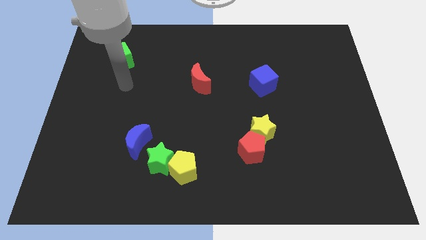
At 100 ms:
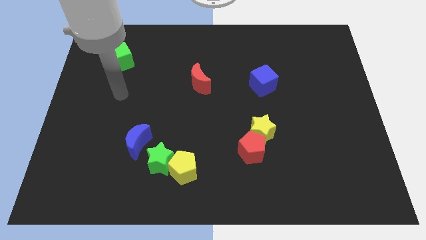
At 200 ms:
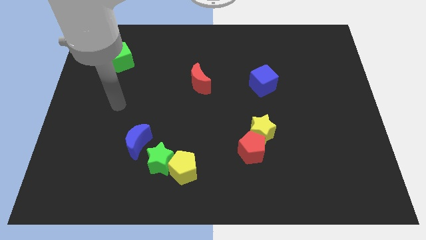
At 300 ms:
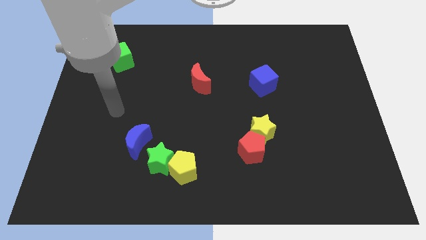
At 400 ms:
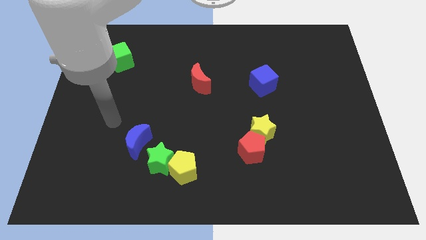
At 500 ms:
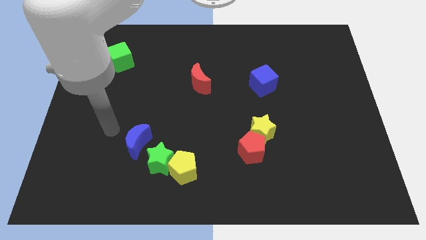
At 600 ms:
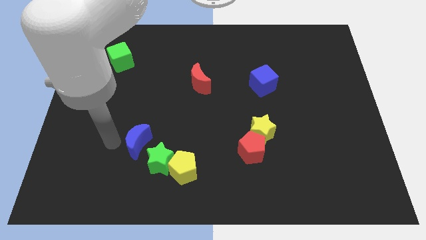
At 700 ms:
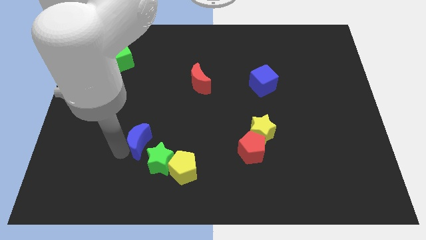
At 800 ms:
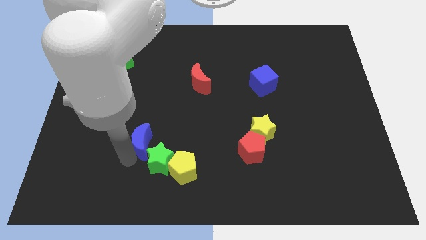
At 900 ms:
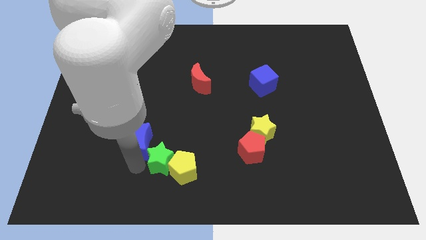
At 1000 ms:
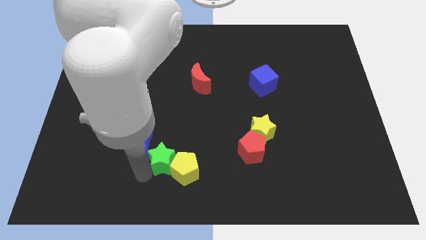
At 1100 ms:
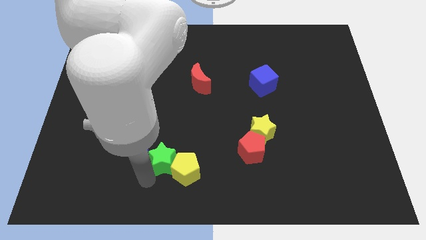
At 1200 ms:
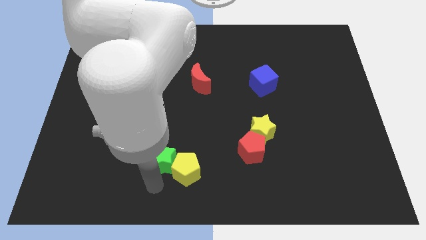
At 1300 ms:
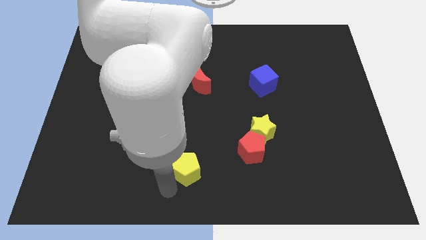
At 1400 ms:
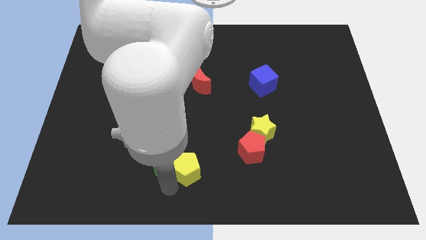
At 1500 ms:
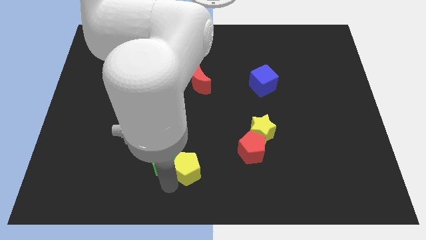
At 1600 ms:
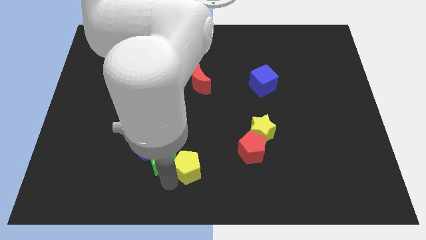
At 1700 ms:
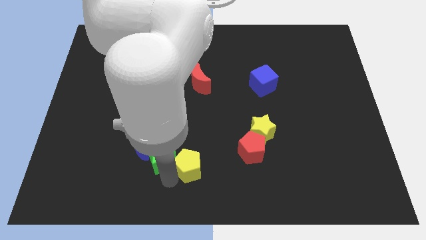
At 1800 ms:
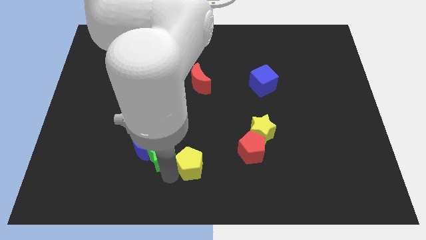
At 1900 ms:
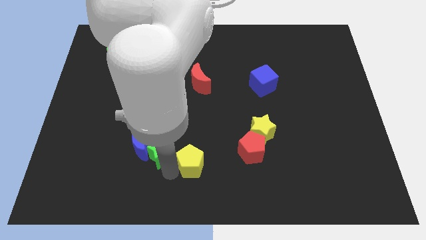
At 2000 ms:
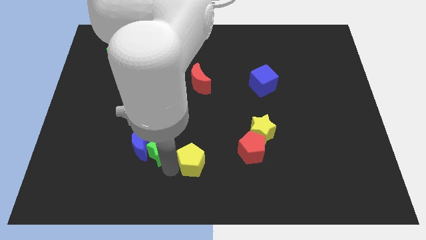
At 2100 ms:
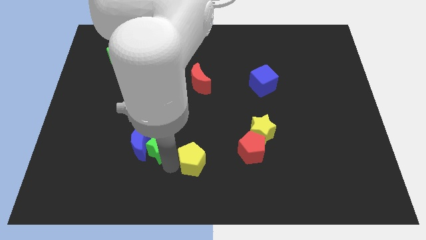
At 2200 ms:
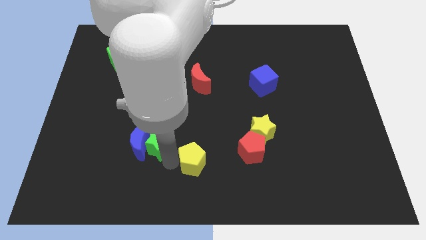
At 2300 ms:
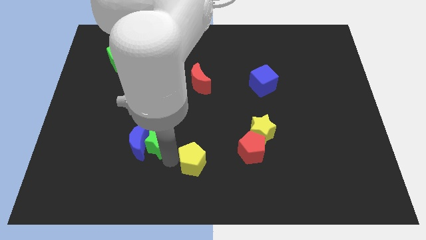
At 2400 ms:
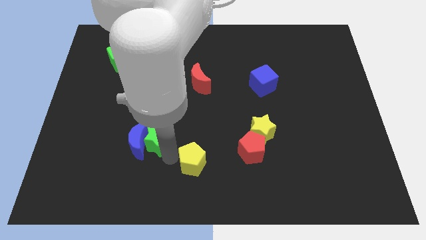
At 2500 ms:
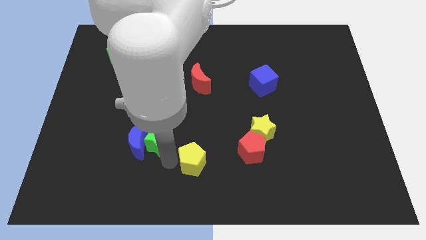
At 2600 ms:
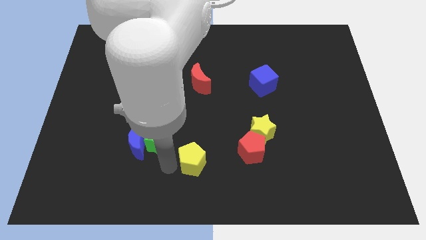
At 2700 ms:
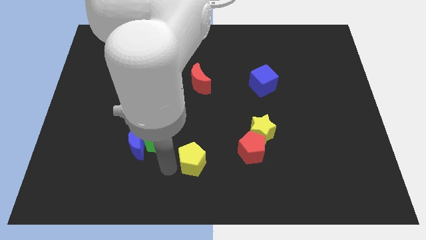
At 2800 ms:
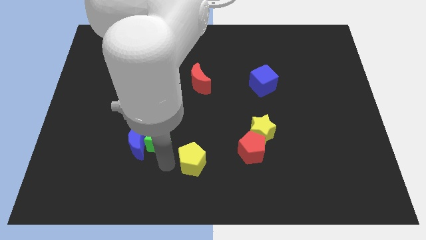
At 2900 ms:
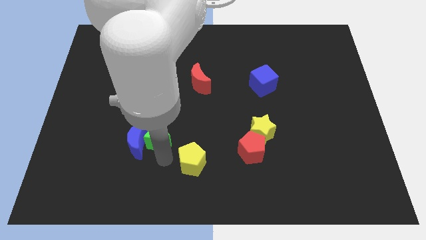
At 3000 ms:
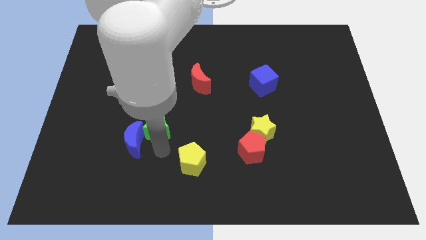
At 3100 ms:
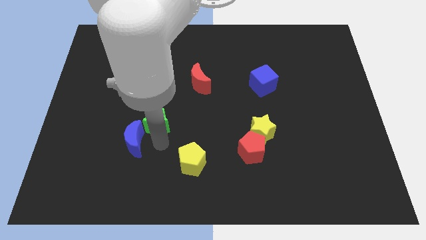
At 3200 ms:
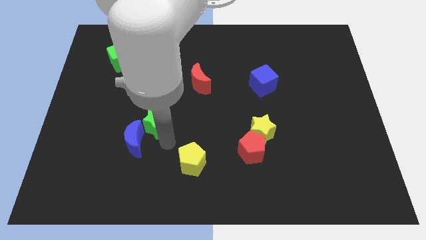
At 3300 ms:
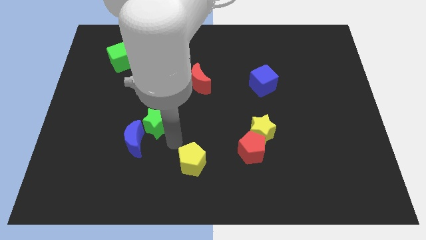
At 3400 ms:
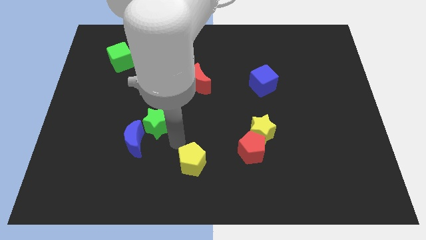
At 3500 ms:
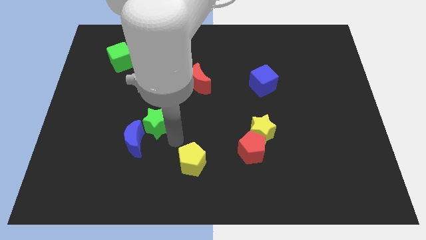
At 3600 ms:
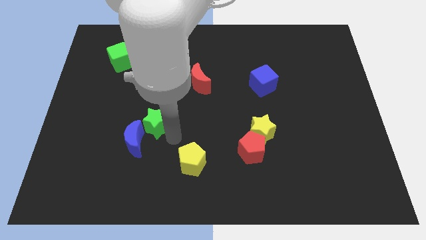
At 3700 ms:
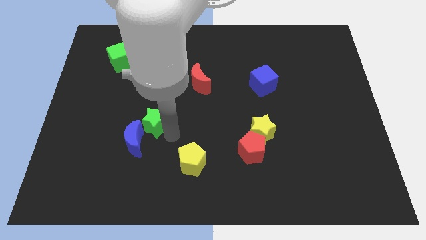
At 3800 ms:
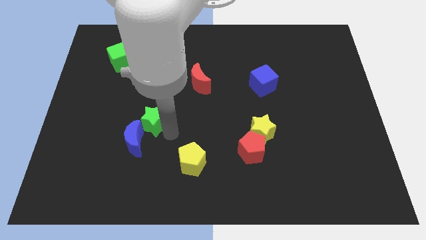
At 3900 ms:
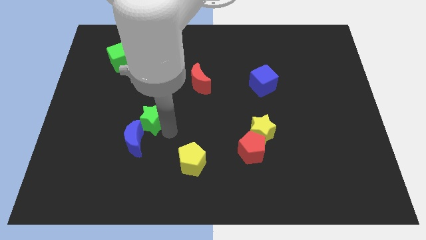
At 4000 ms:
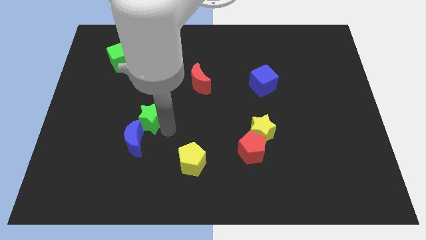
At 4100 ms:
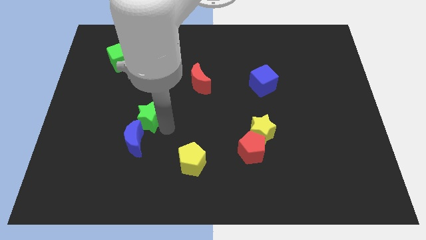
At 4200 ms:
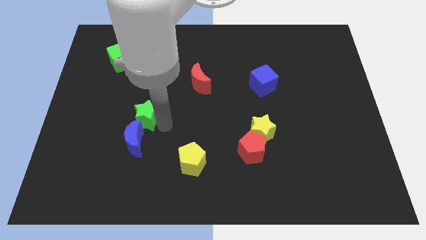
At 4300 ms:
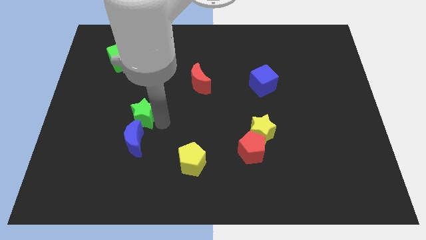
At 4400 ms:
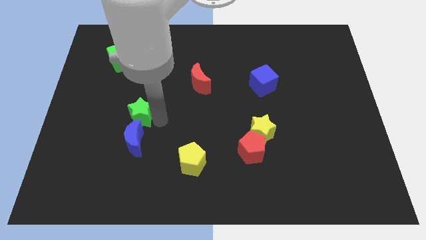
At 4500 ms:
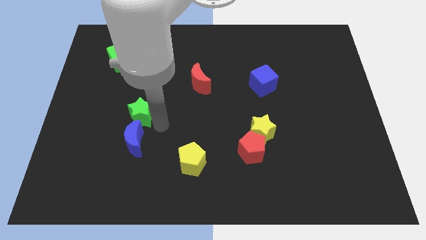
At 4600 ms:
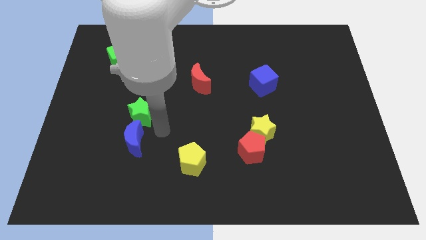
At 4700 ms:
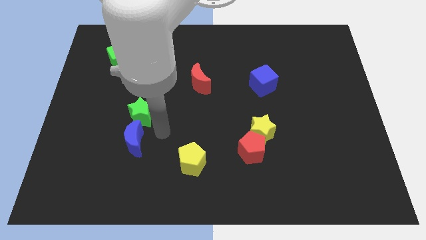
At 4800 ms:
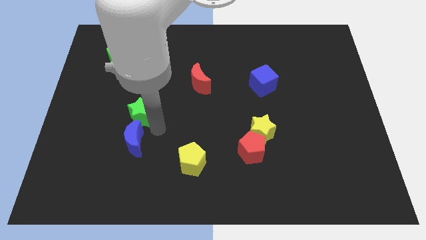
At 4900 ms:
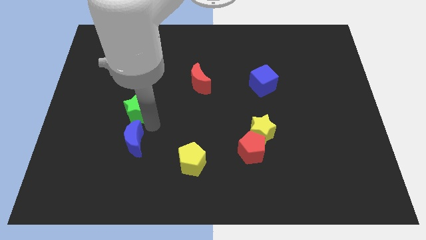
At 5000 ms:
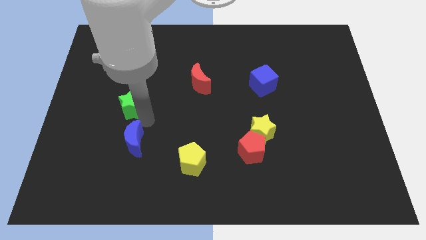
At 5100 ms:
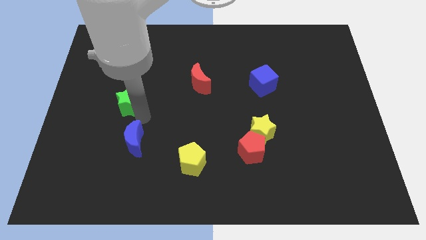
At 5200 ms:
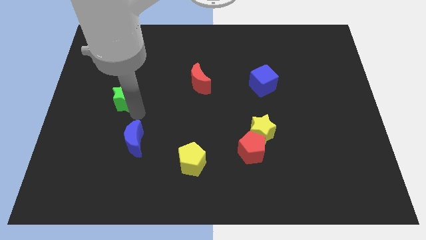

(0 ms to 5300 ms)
move the green star to the bottom of the green cube

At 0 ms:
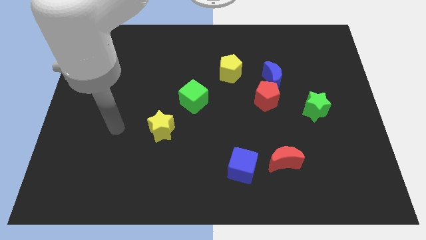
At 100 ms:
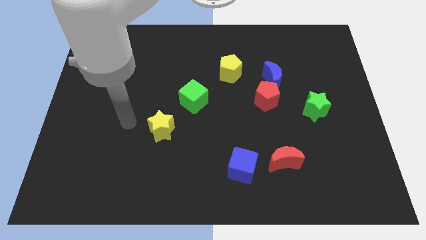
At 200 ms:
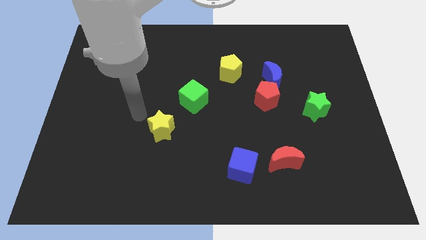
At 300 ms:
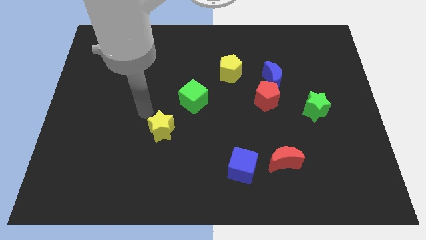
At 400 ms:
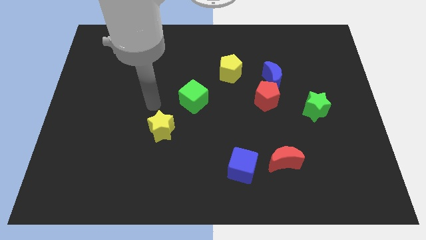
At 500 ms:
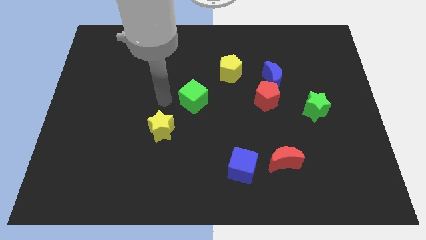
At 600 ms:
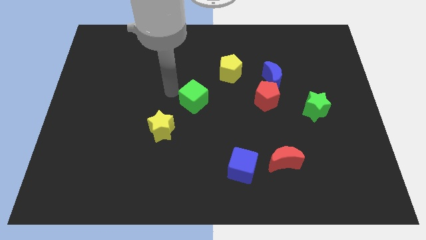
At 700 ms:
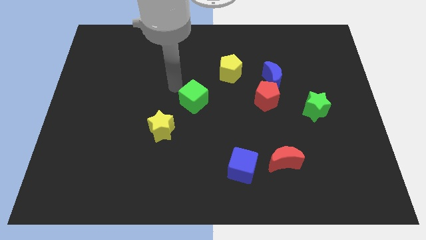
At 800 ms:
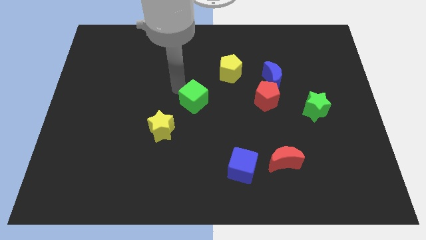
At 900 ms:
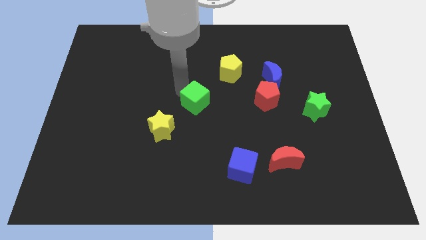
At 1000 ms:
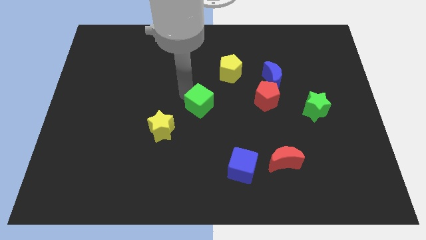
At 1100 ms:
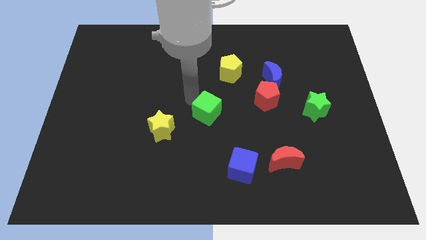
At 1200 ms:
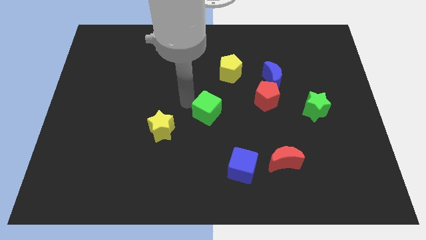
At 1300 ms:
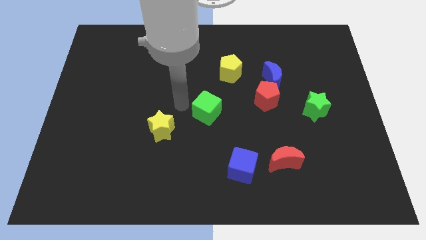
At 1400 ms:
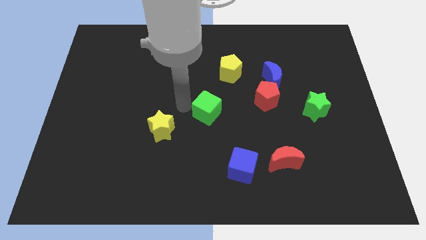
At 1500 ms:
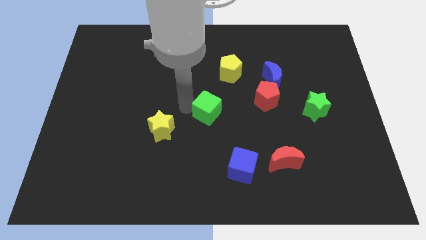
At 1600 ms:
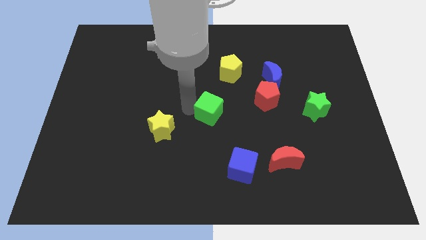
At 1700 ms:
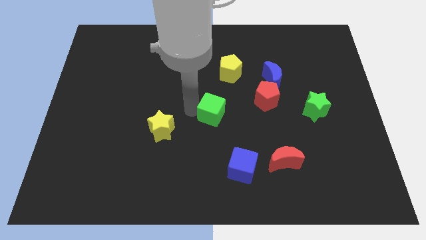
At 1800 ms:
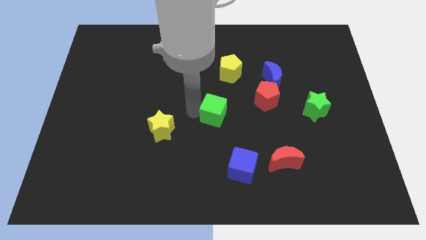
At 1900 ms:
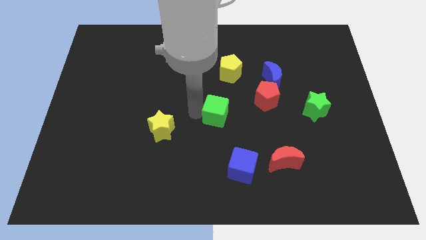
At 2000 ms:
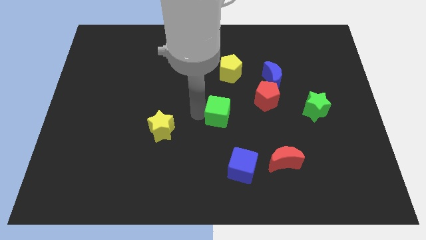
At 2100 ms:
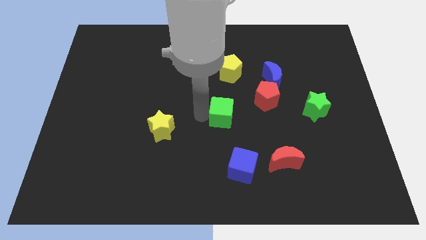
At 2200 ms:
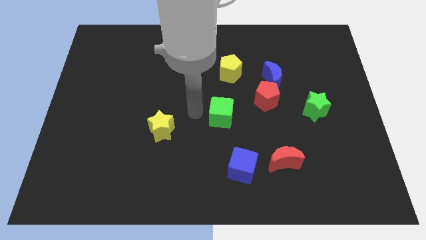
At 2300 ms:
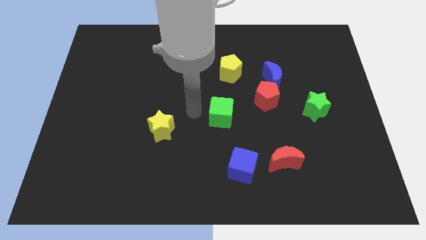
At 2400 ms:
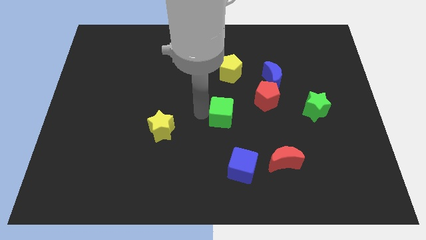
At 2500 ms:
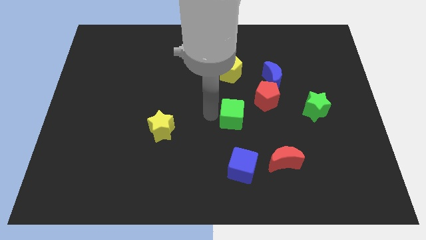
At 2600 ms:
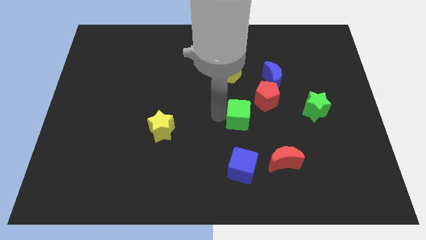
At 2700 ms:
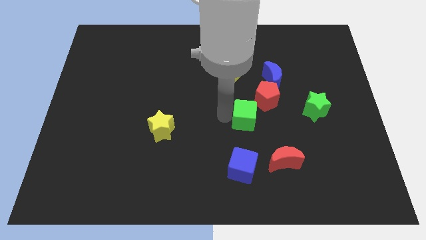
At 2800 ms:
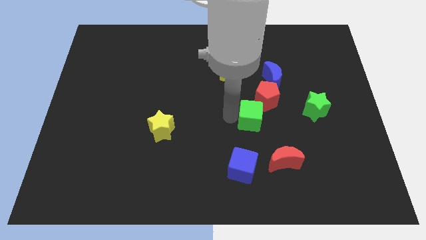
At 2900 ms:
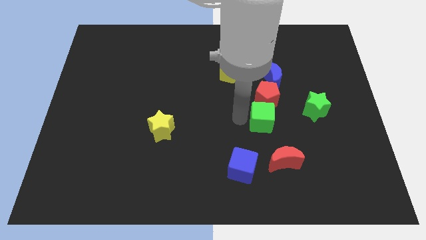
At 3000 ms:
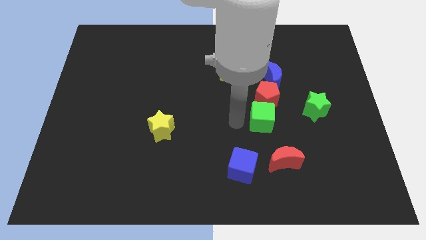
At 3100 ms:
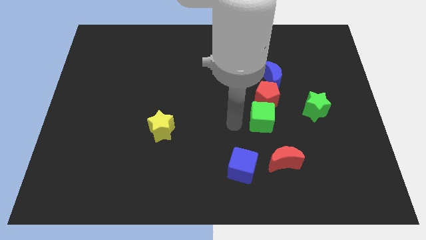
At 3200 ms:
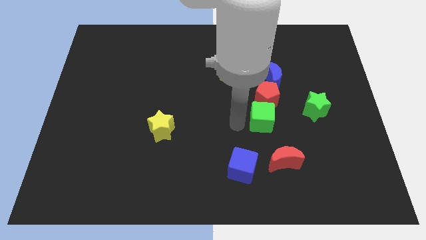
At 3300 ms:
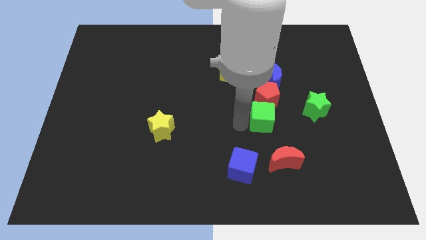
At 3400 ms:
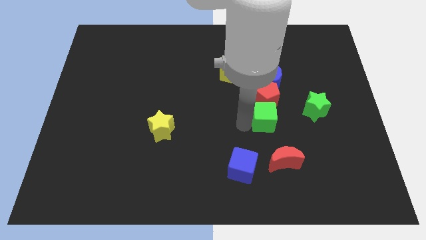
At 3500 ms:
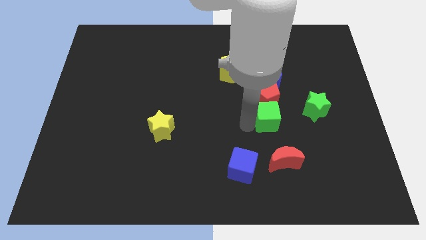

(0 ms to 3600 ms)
move the green cube to the bottom right side of the red pentagon
